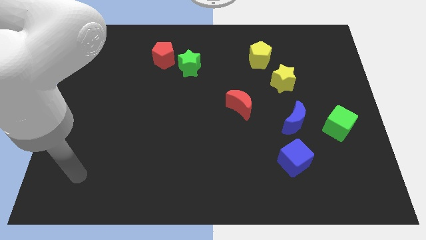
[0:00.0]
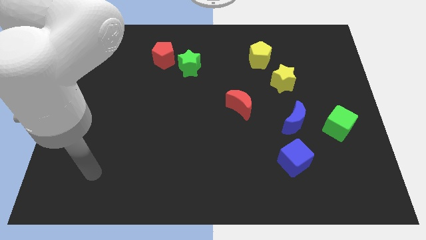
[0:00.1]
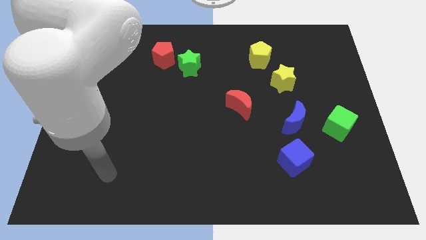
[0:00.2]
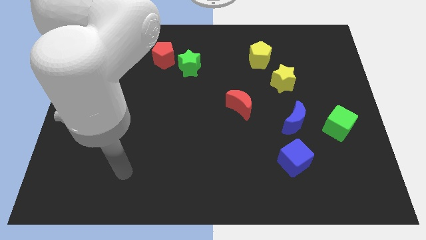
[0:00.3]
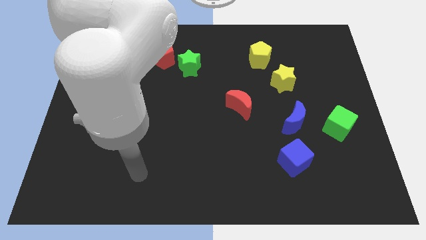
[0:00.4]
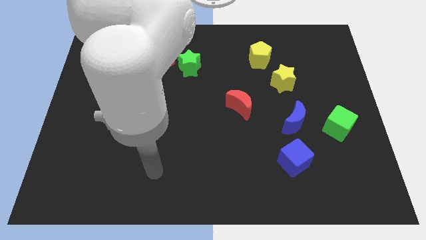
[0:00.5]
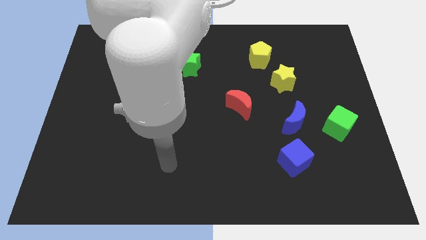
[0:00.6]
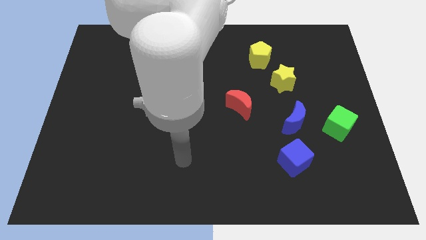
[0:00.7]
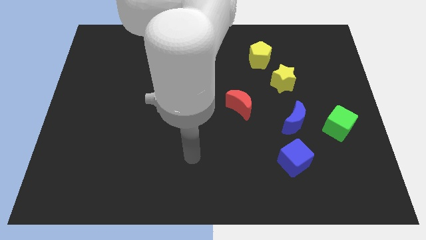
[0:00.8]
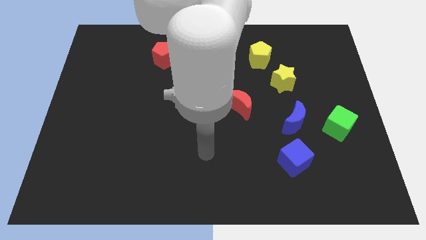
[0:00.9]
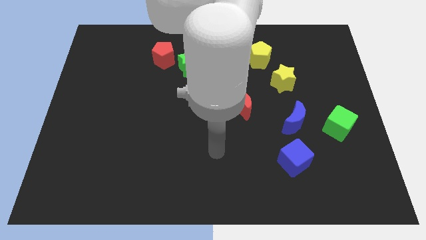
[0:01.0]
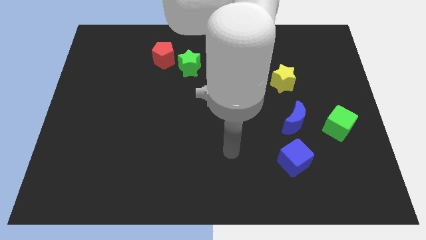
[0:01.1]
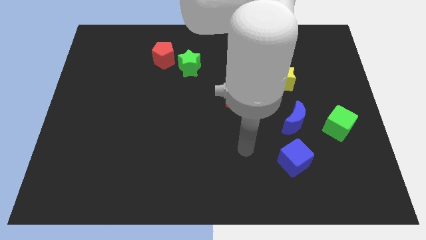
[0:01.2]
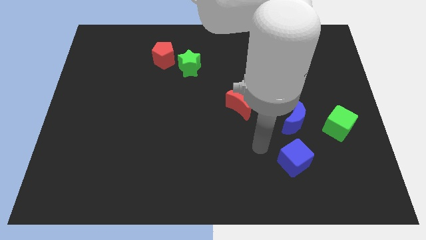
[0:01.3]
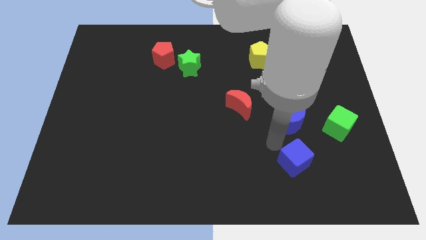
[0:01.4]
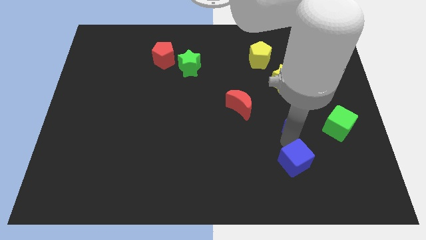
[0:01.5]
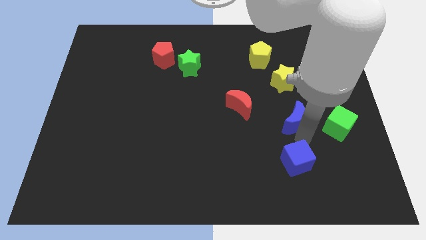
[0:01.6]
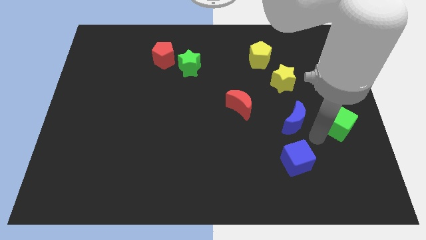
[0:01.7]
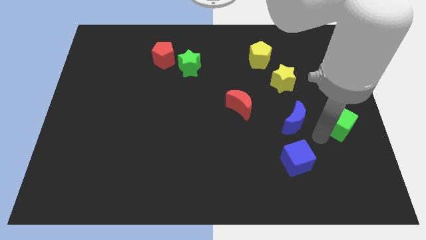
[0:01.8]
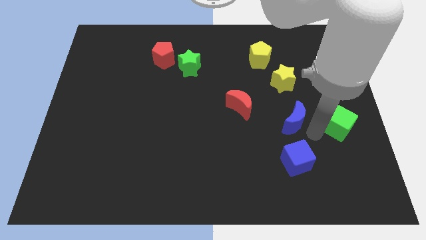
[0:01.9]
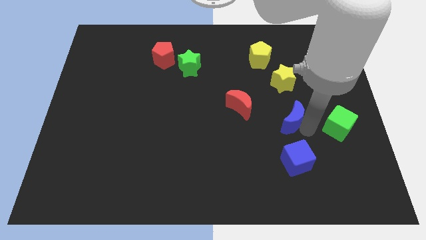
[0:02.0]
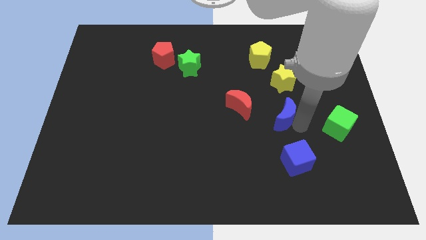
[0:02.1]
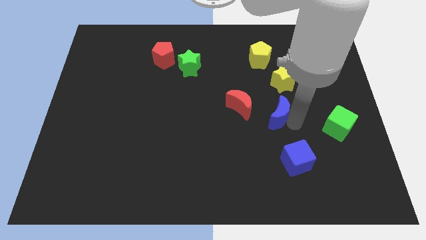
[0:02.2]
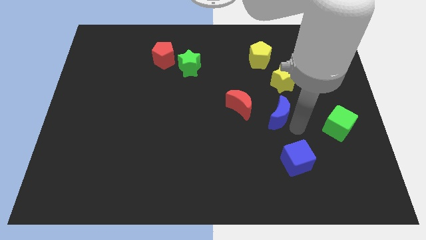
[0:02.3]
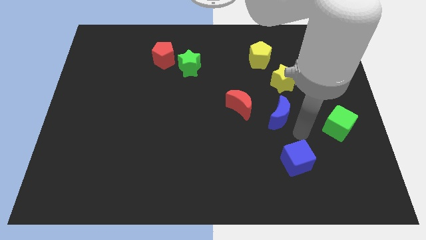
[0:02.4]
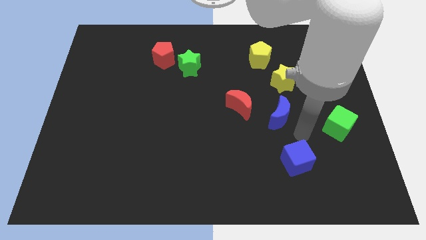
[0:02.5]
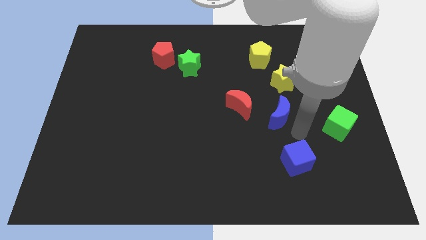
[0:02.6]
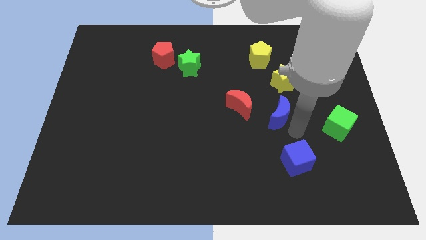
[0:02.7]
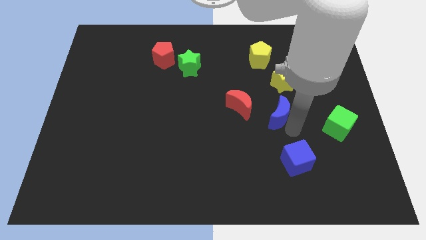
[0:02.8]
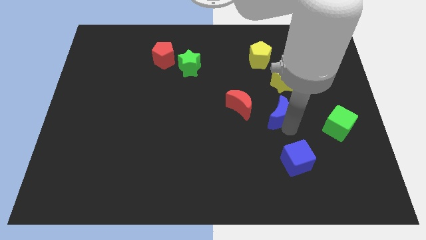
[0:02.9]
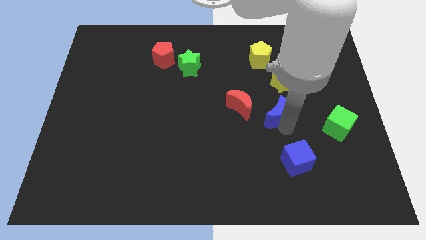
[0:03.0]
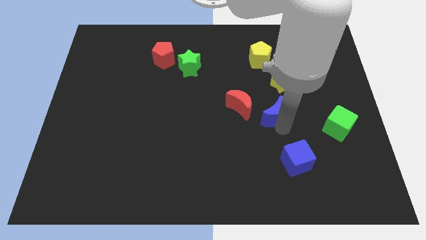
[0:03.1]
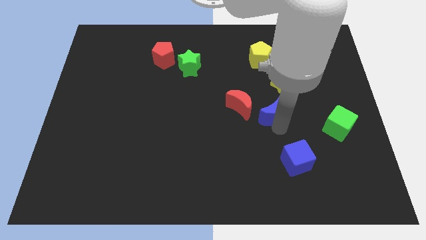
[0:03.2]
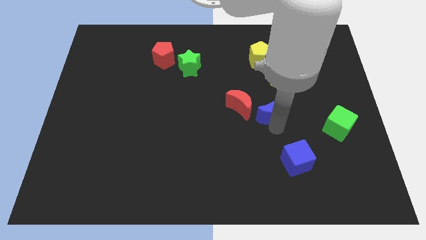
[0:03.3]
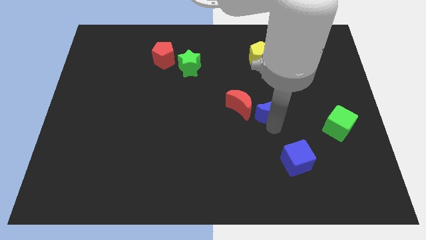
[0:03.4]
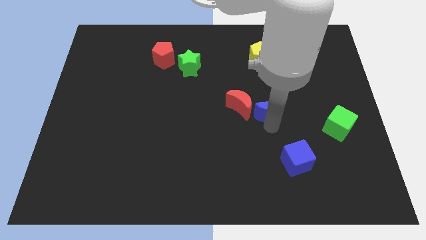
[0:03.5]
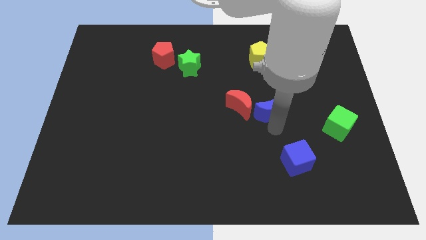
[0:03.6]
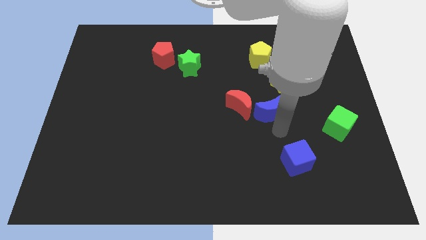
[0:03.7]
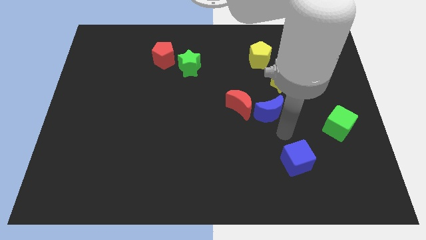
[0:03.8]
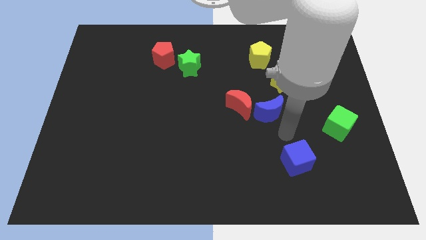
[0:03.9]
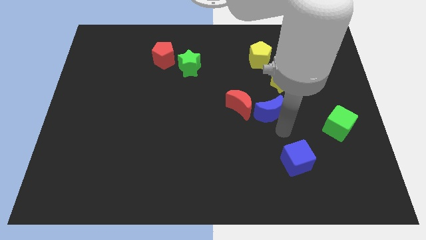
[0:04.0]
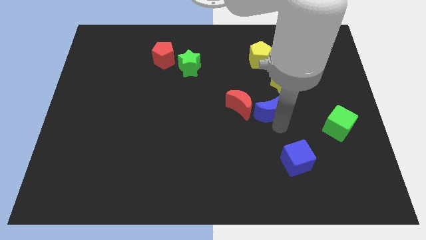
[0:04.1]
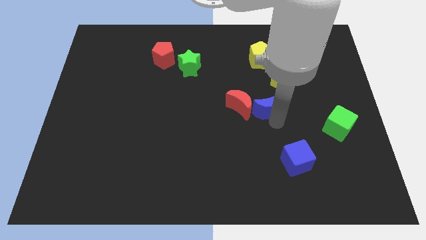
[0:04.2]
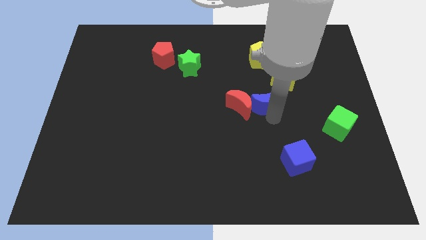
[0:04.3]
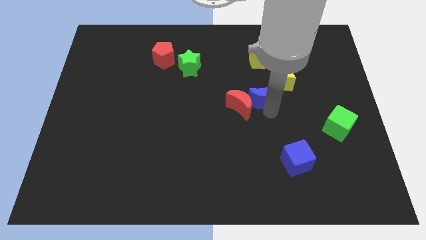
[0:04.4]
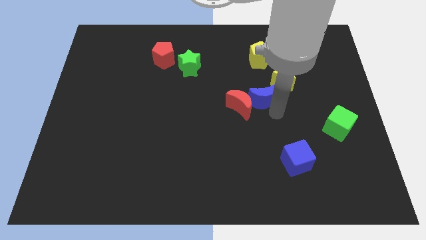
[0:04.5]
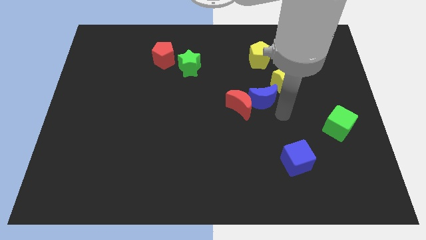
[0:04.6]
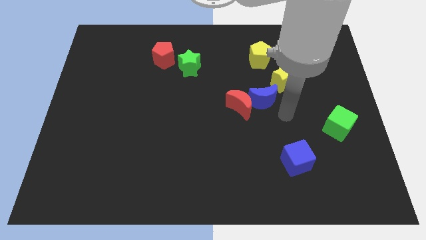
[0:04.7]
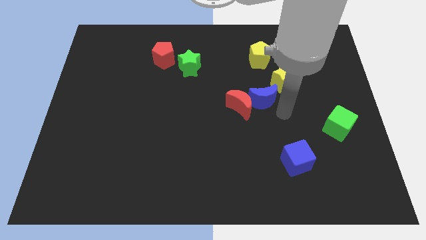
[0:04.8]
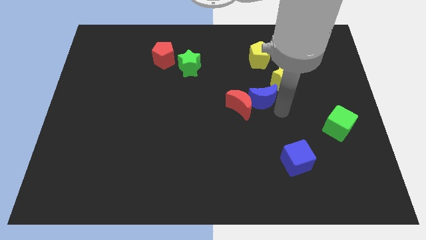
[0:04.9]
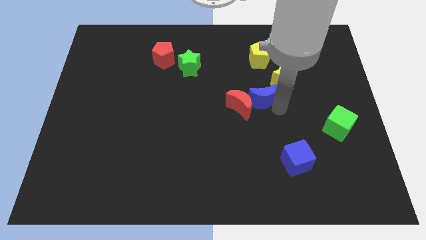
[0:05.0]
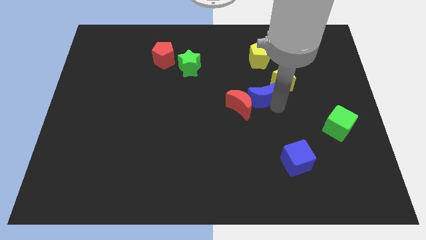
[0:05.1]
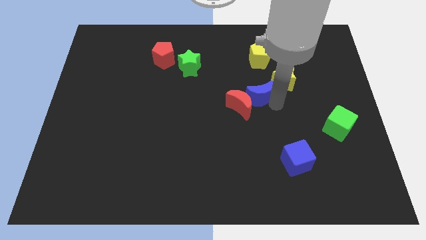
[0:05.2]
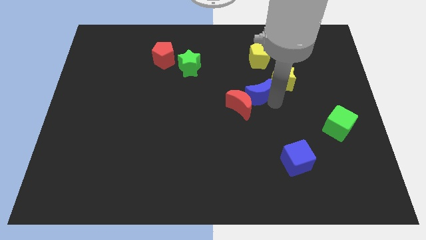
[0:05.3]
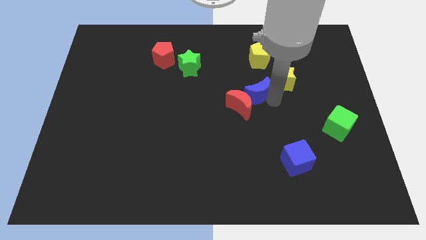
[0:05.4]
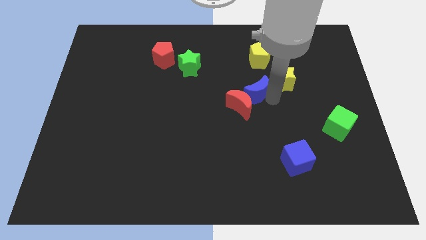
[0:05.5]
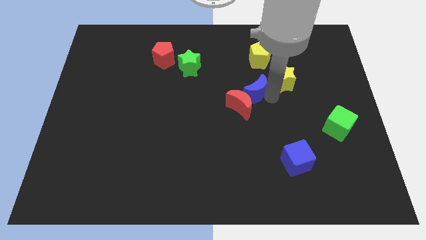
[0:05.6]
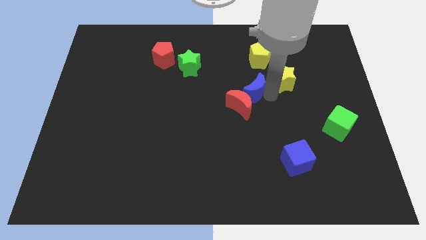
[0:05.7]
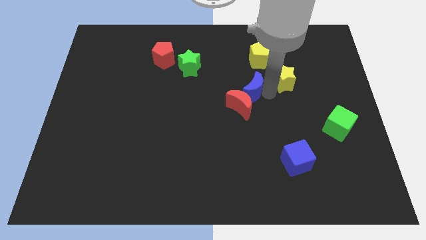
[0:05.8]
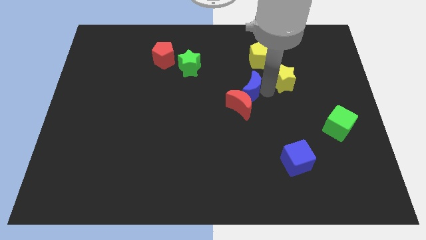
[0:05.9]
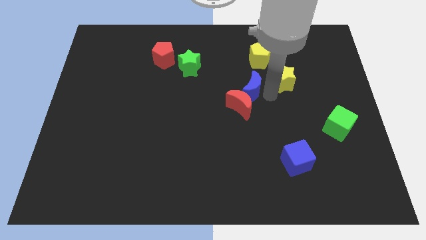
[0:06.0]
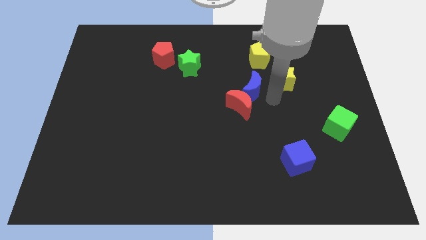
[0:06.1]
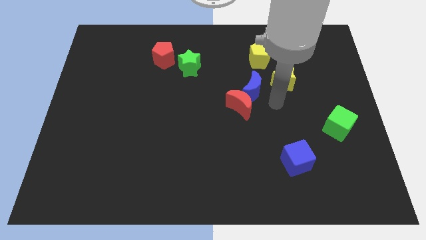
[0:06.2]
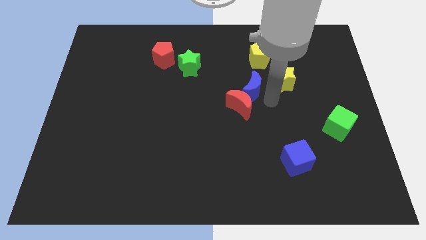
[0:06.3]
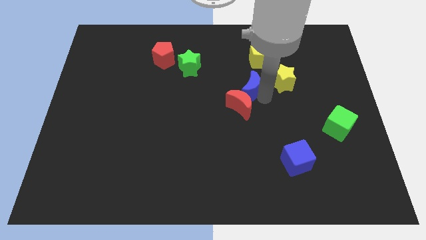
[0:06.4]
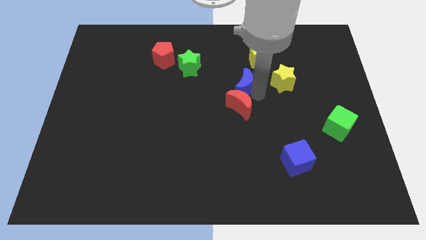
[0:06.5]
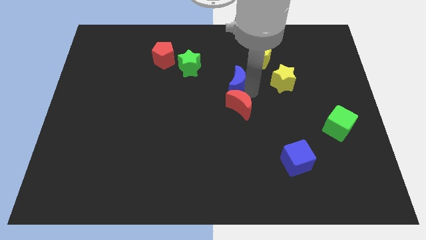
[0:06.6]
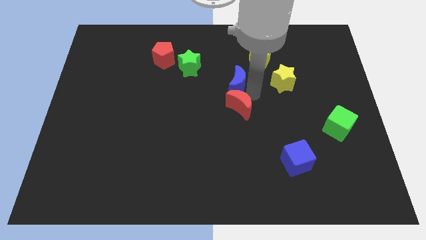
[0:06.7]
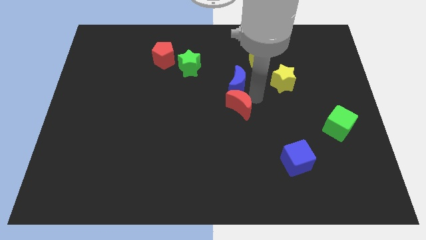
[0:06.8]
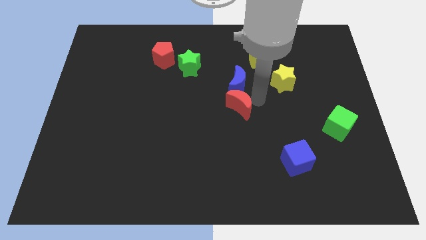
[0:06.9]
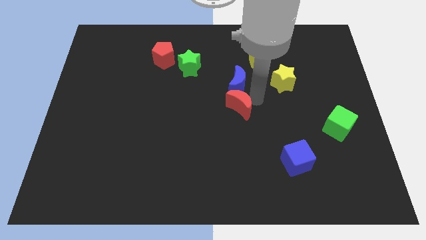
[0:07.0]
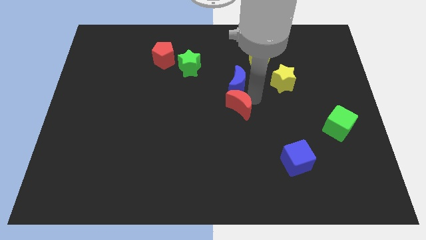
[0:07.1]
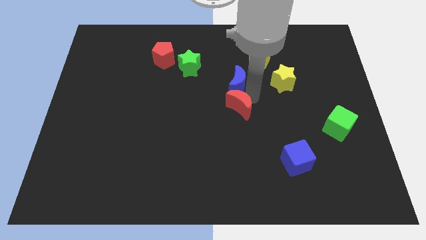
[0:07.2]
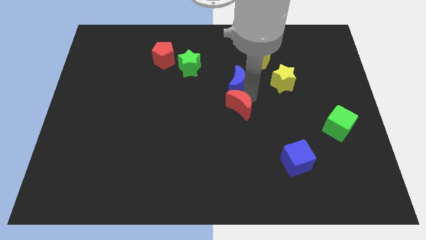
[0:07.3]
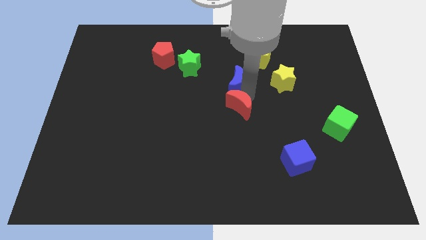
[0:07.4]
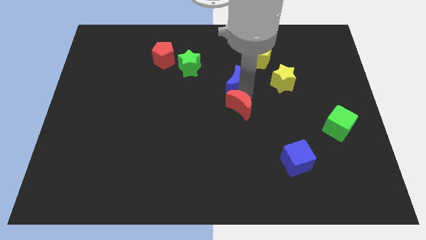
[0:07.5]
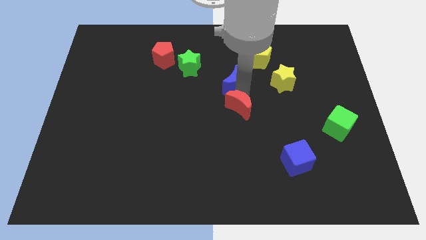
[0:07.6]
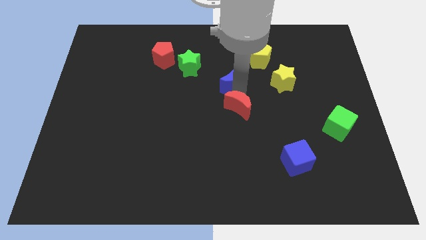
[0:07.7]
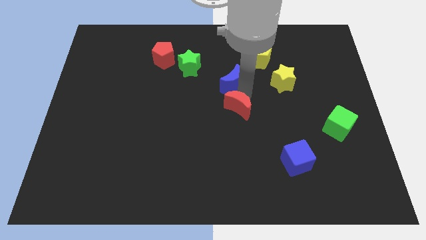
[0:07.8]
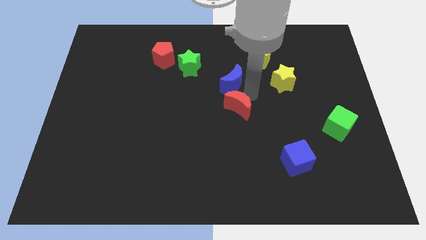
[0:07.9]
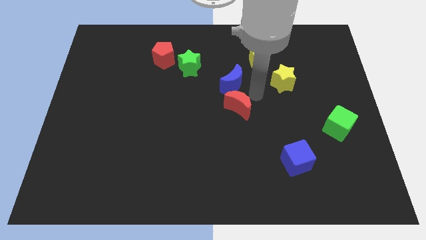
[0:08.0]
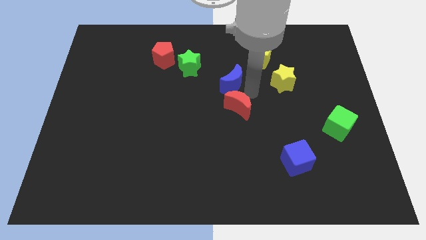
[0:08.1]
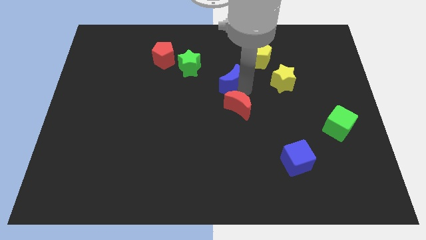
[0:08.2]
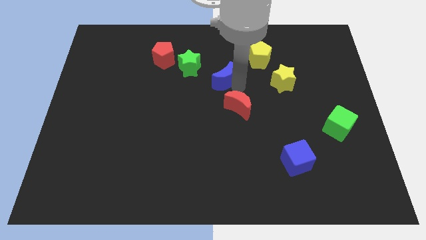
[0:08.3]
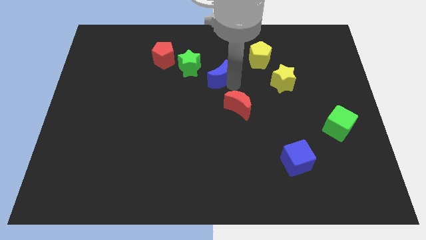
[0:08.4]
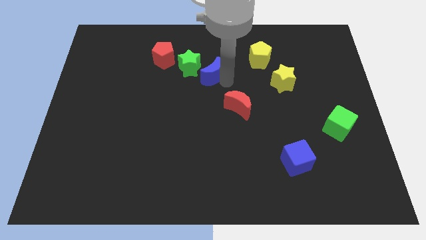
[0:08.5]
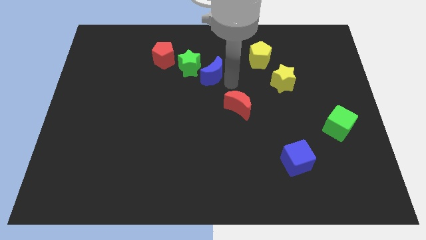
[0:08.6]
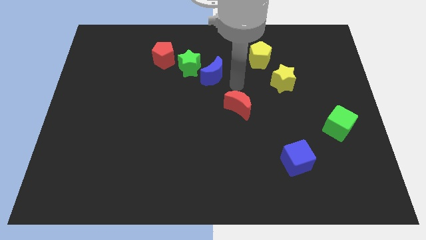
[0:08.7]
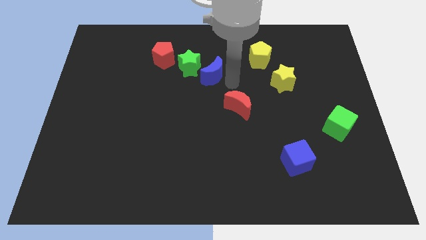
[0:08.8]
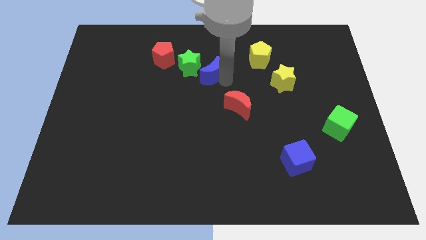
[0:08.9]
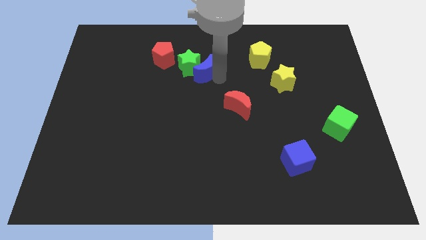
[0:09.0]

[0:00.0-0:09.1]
move the blue moon towards the green star
